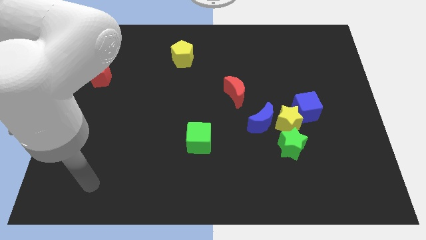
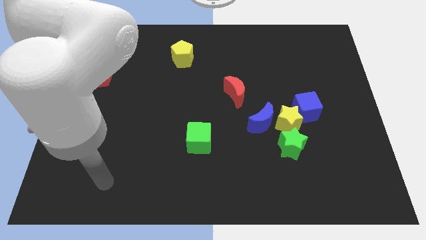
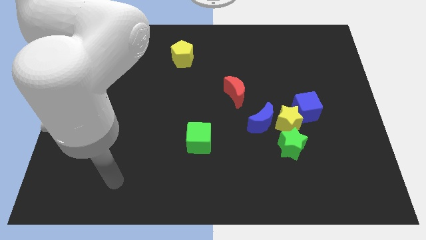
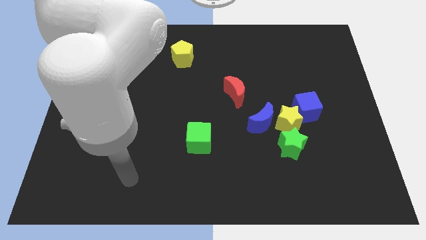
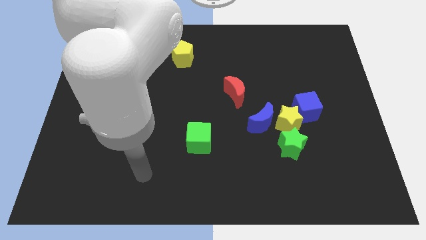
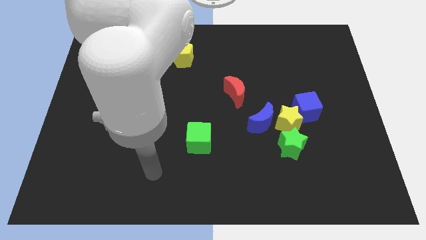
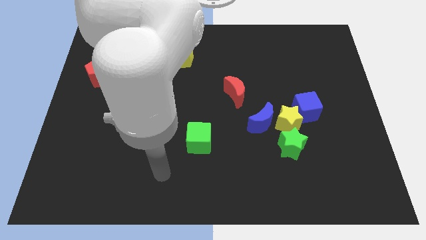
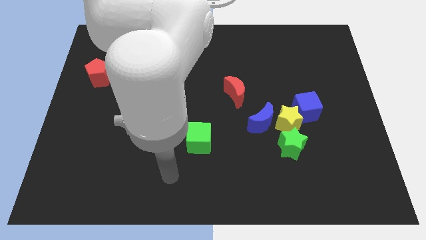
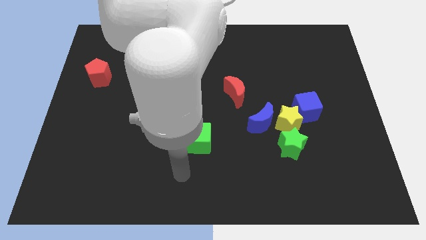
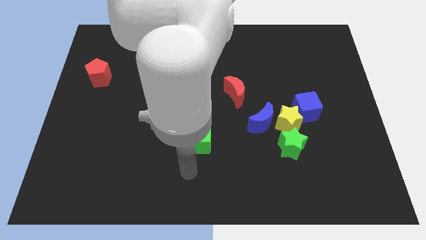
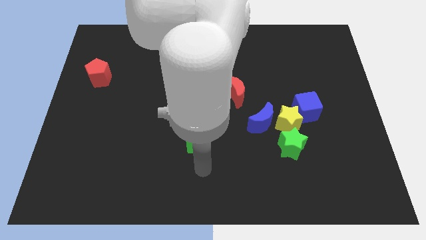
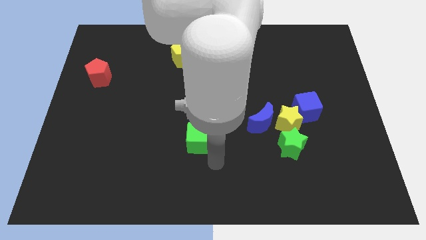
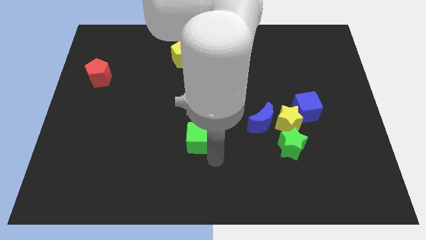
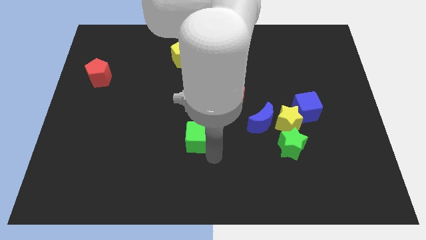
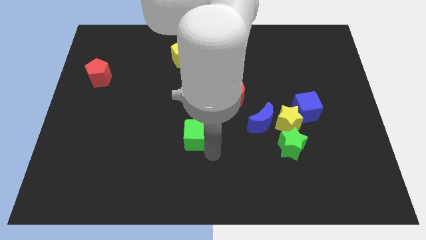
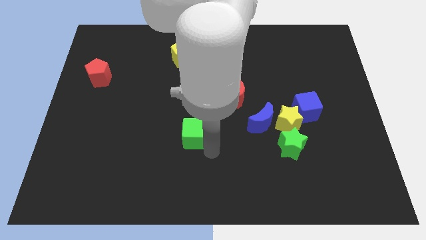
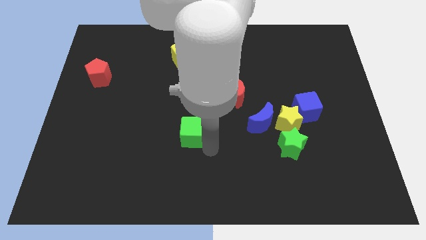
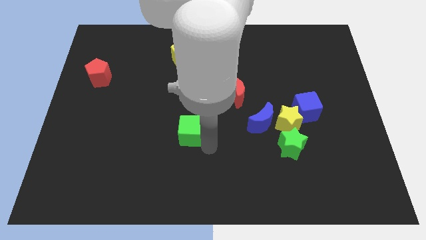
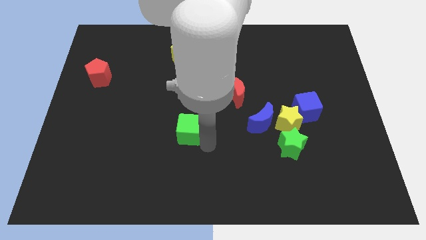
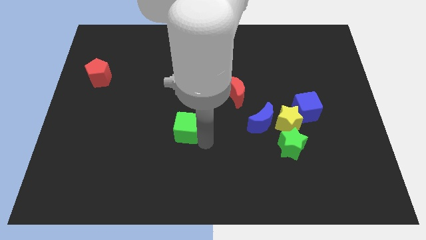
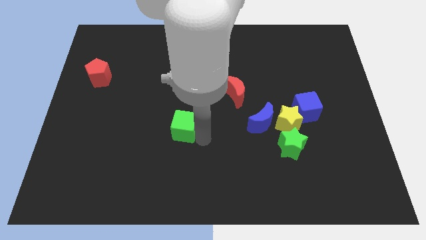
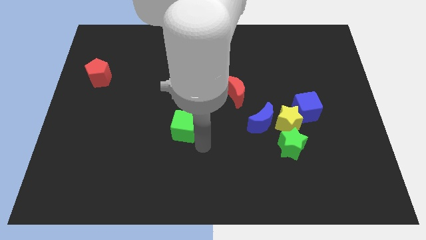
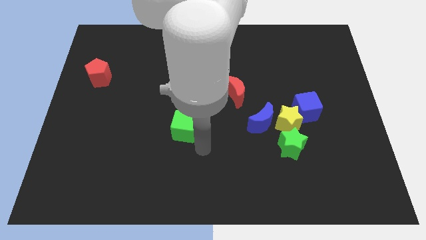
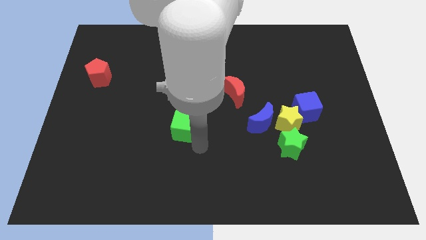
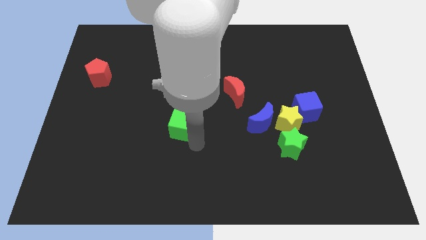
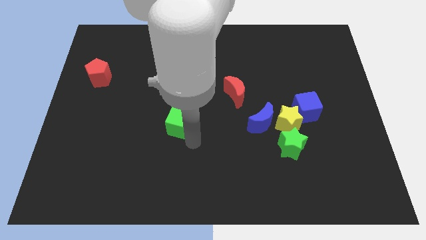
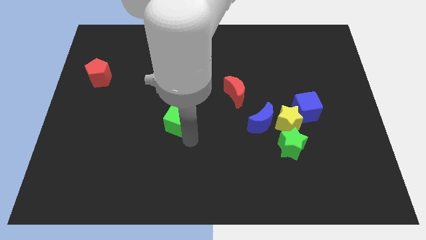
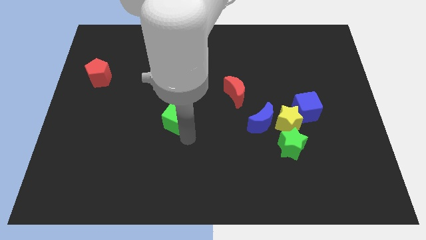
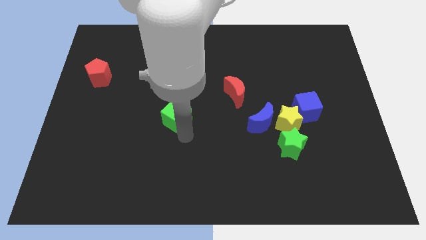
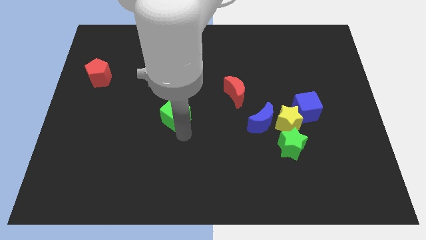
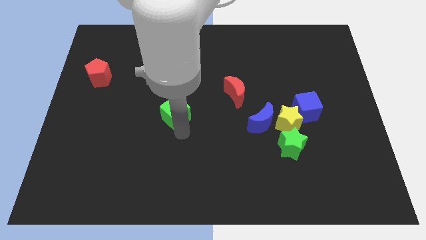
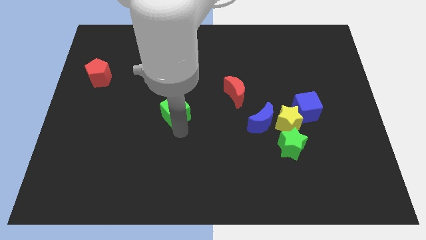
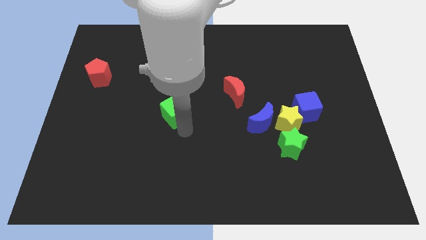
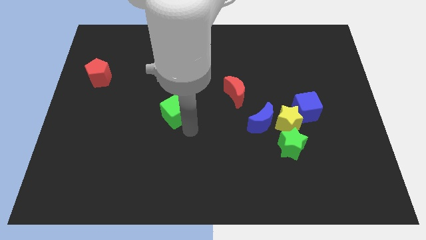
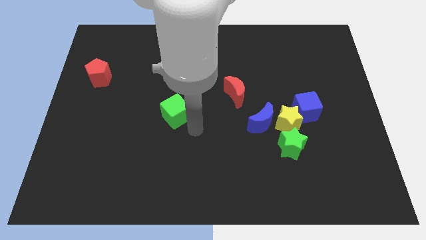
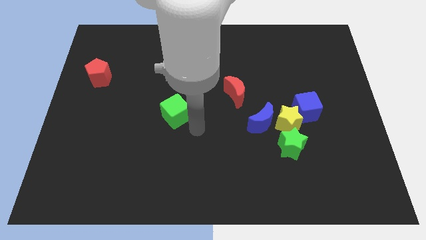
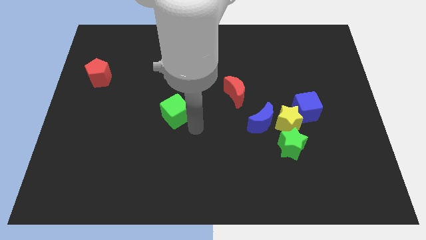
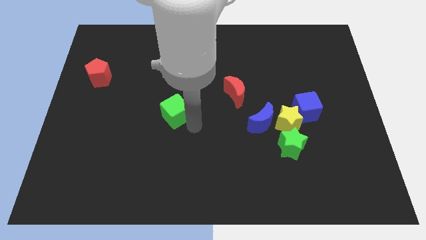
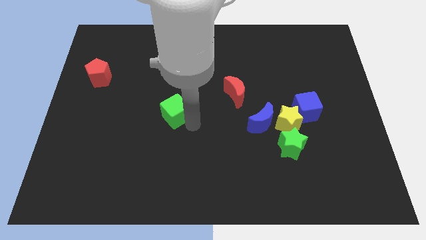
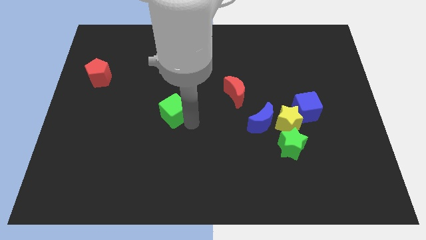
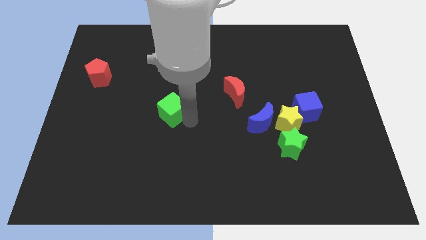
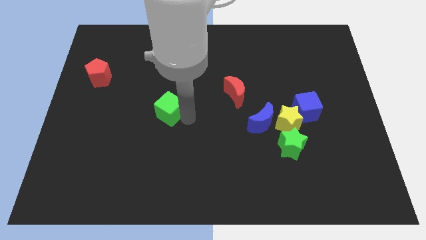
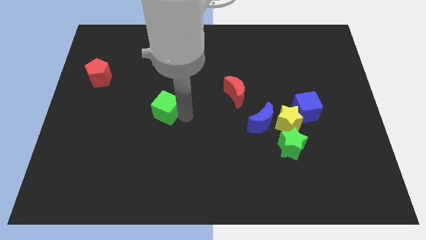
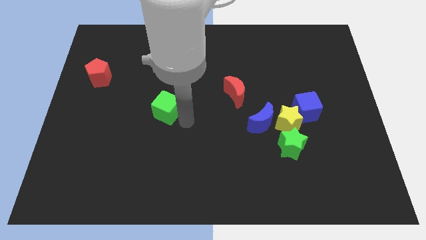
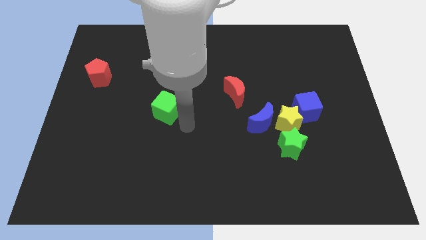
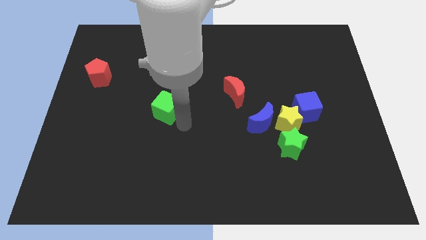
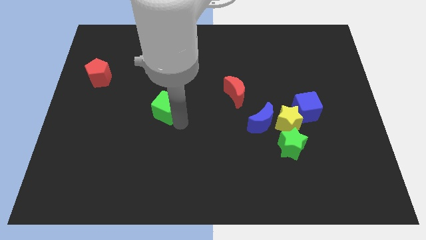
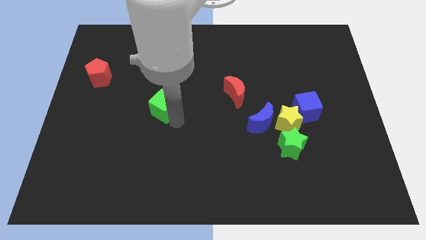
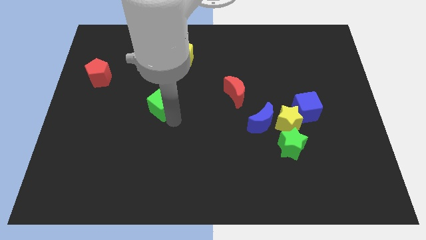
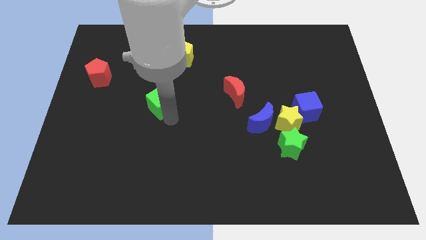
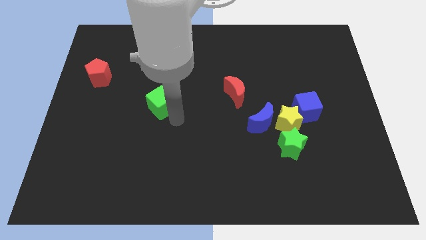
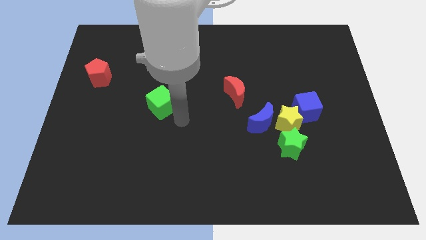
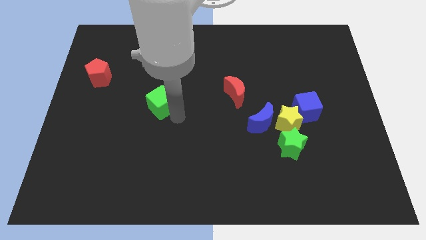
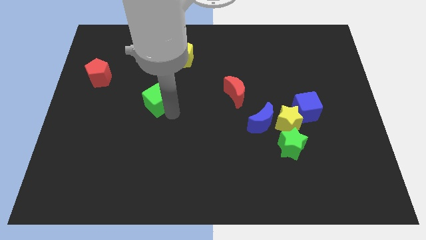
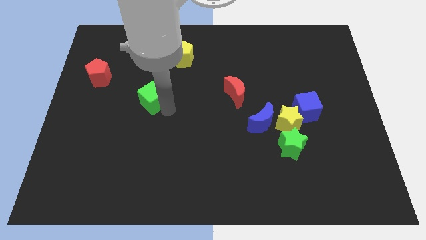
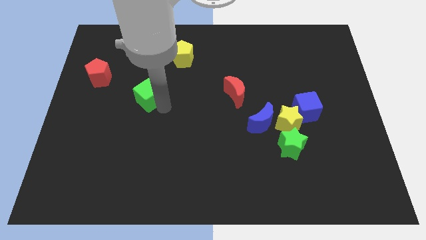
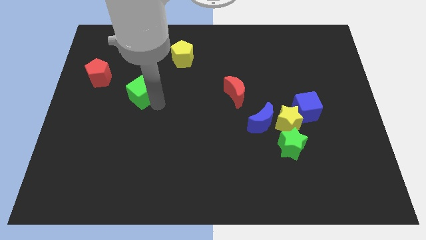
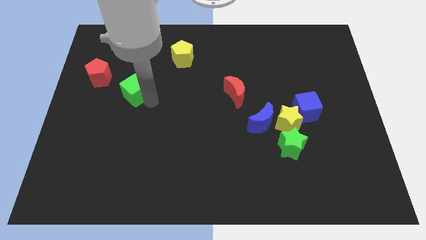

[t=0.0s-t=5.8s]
slide the green cube up and then left

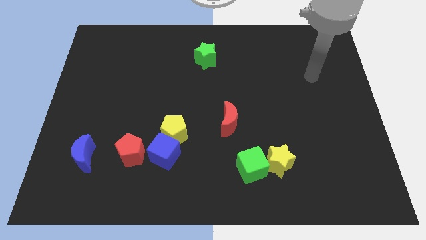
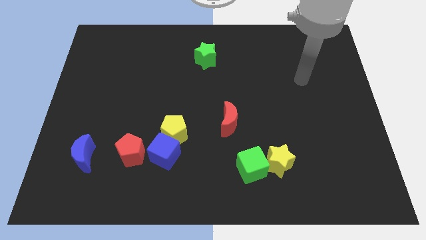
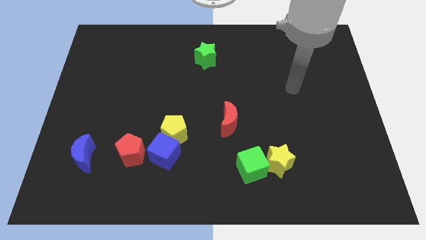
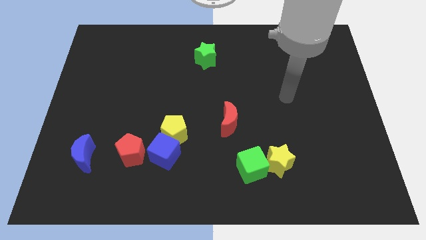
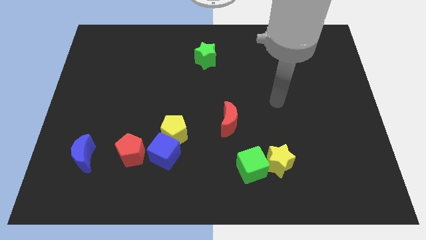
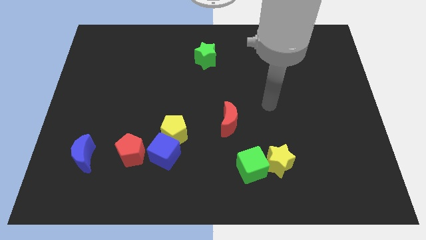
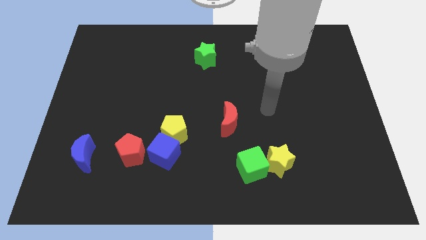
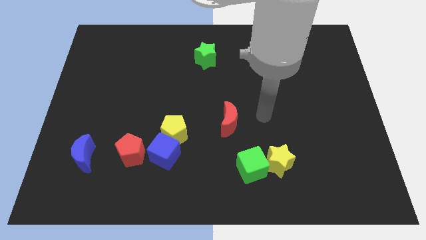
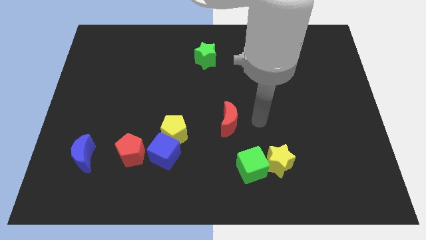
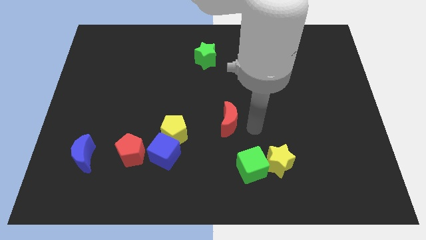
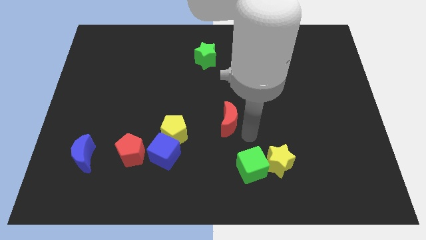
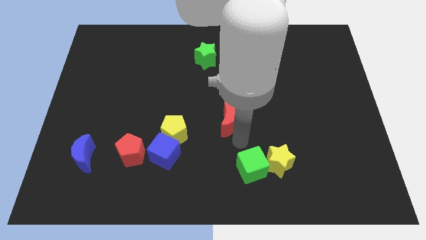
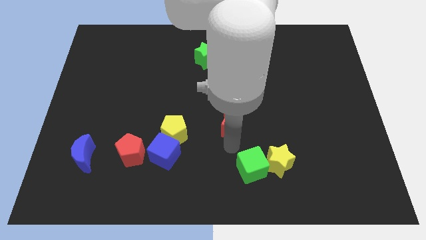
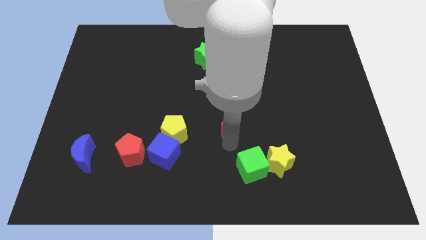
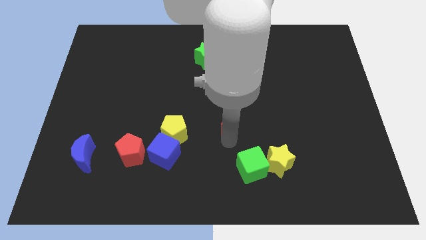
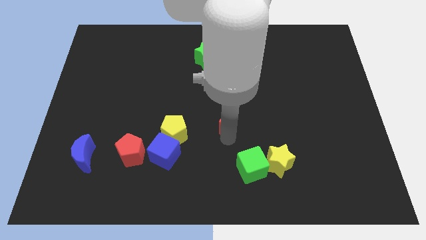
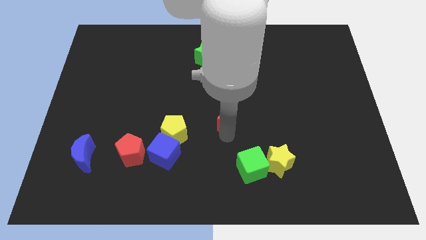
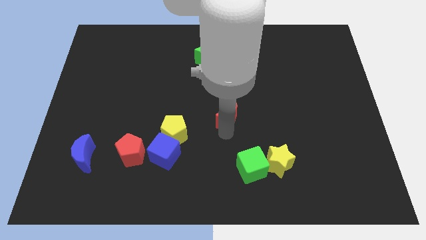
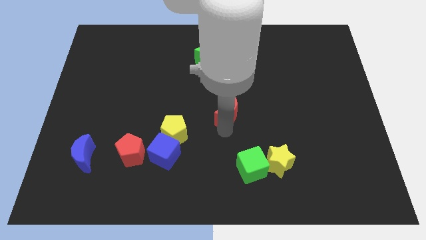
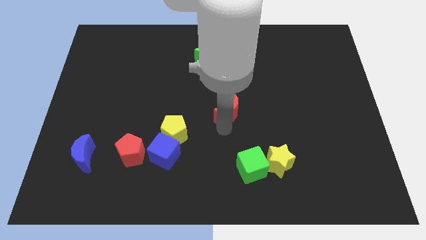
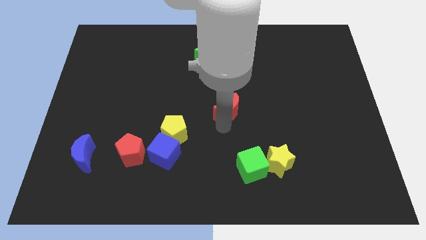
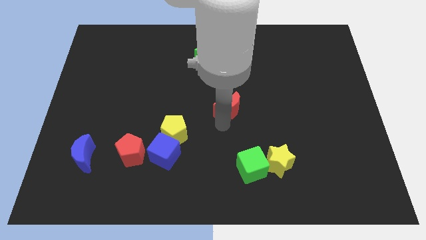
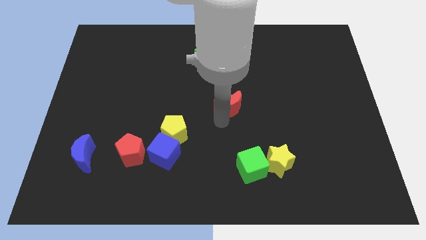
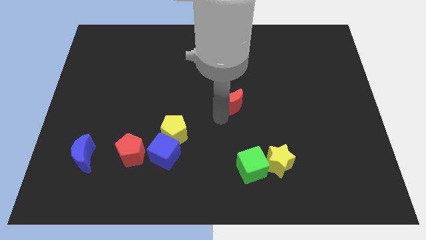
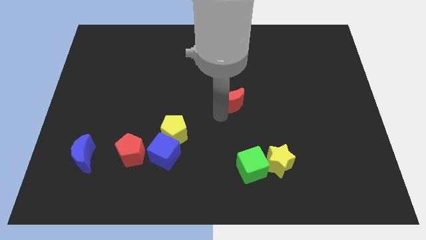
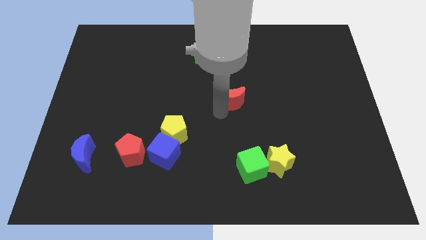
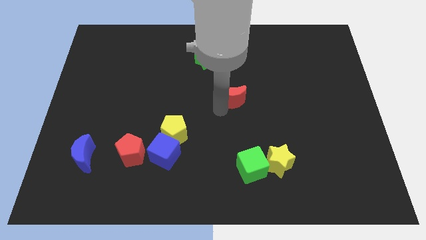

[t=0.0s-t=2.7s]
move the red moon upwards somewhat

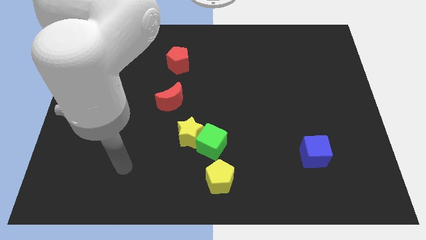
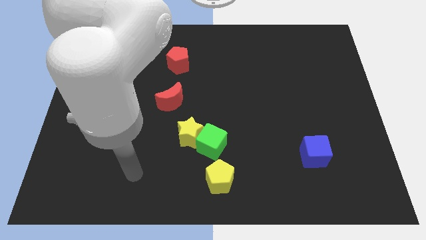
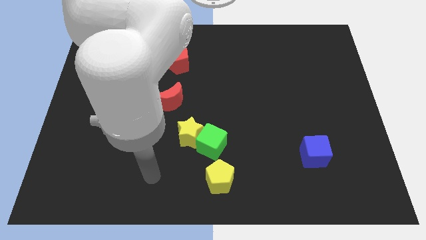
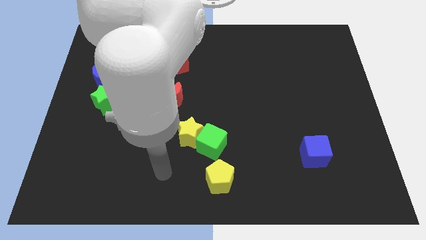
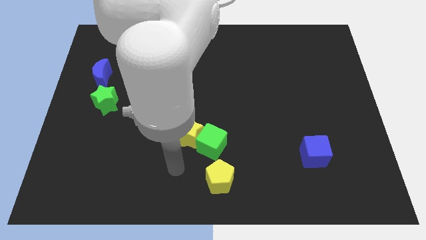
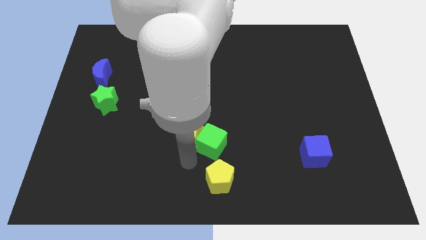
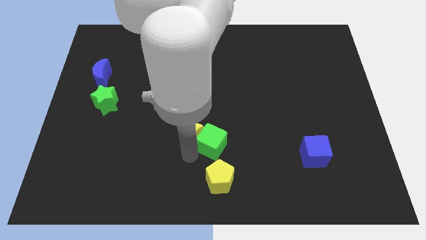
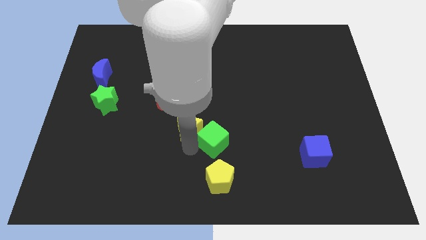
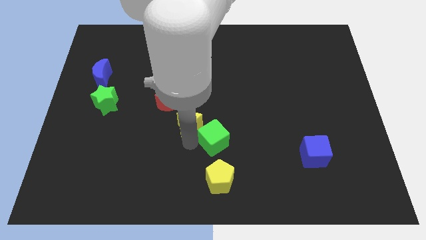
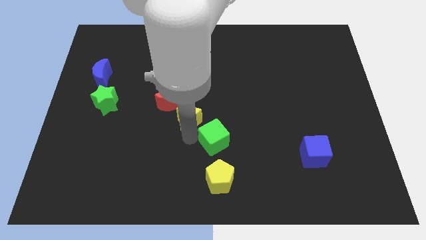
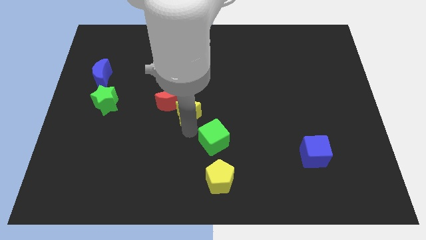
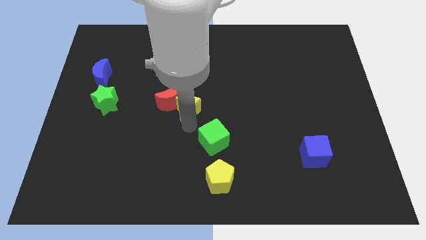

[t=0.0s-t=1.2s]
push the yellow star a bit upwards
